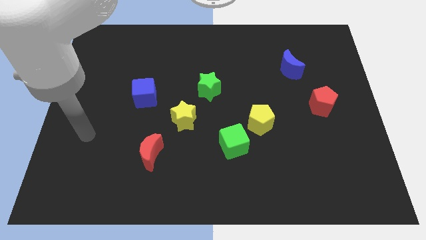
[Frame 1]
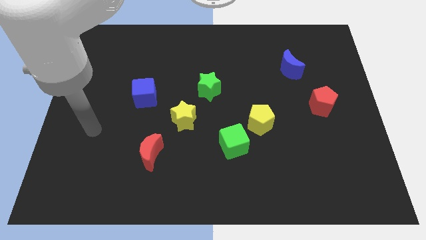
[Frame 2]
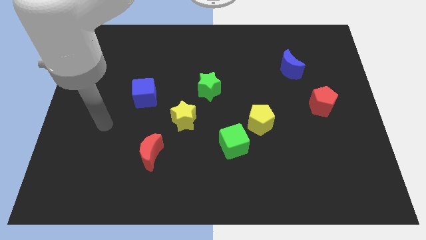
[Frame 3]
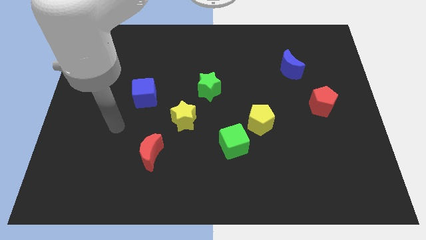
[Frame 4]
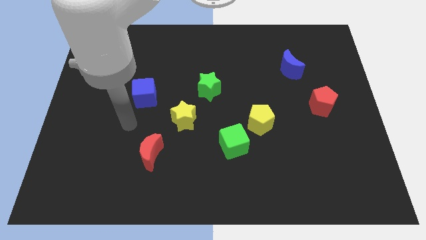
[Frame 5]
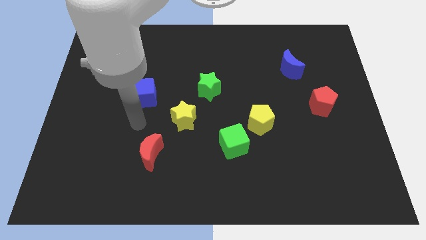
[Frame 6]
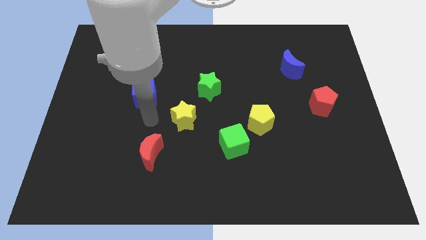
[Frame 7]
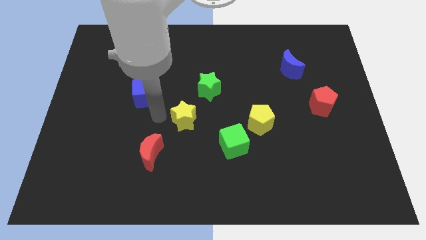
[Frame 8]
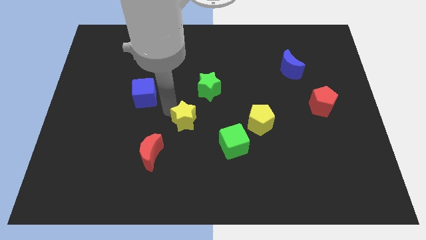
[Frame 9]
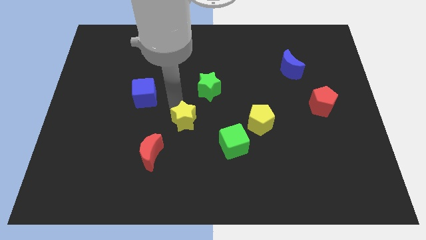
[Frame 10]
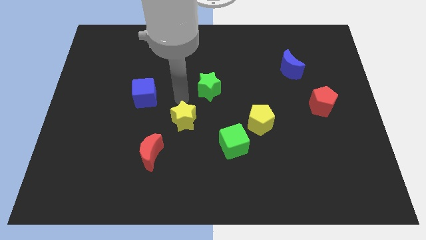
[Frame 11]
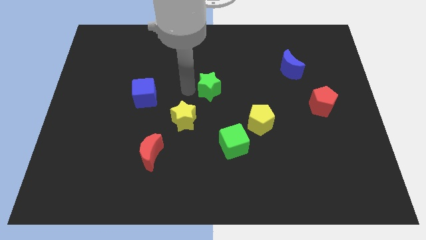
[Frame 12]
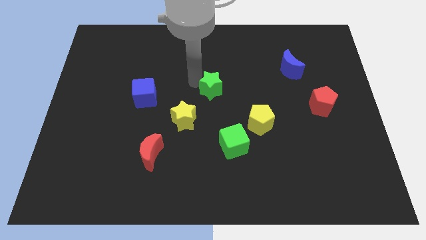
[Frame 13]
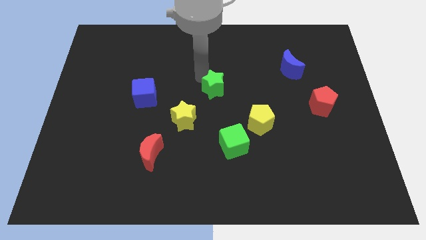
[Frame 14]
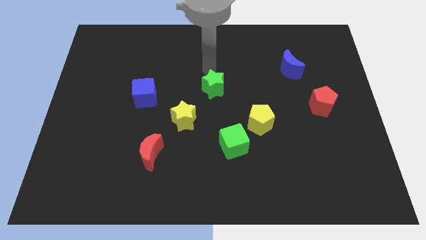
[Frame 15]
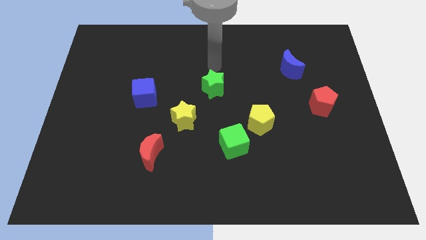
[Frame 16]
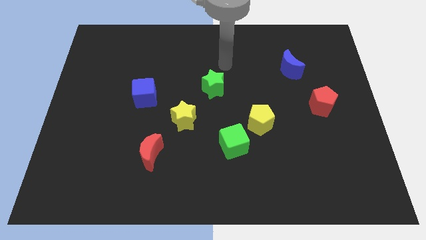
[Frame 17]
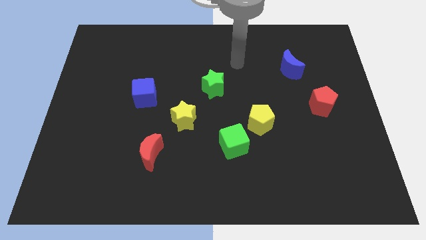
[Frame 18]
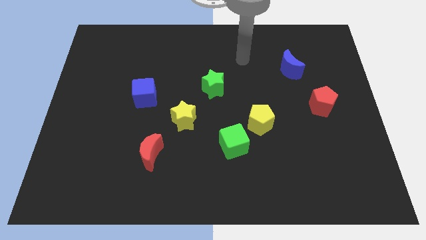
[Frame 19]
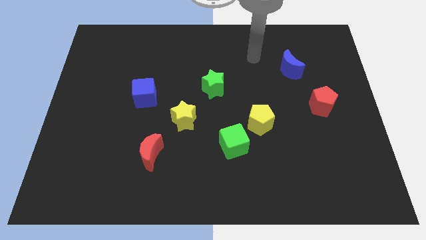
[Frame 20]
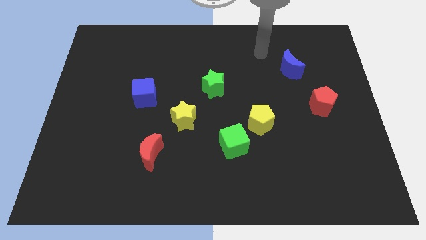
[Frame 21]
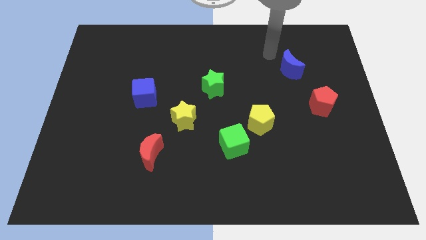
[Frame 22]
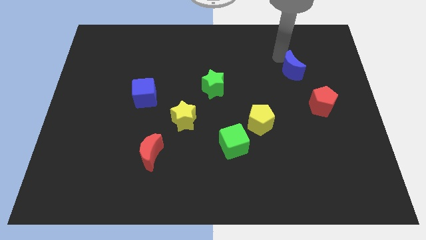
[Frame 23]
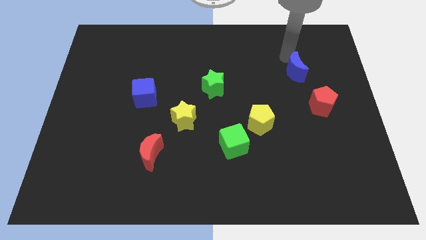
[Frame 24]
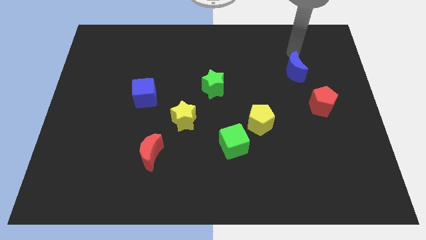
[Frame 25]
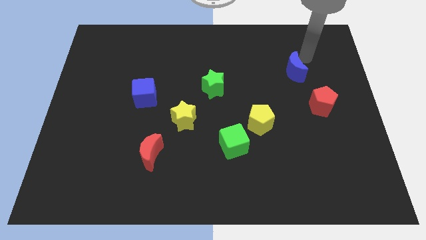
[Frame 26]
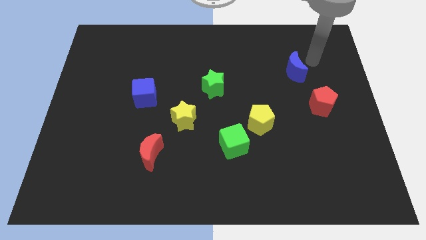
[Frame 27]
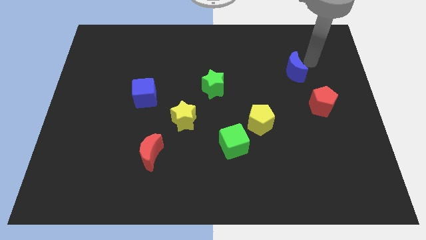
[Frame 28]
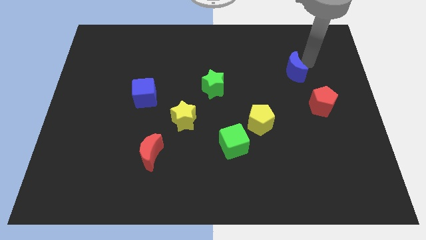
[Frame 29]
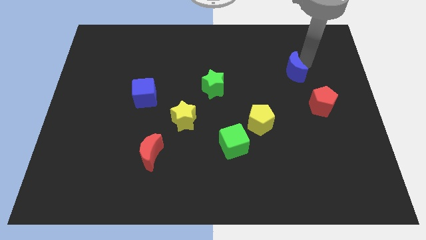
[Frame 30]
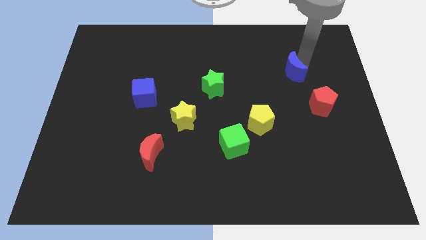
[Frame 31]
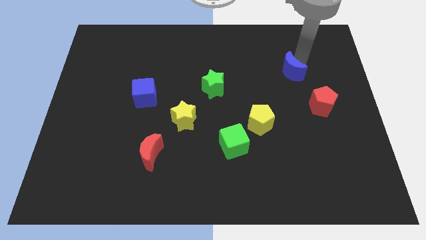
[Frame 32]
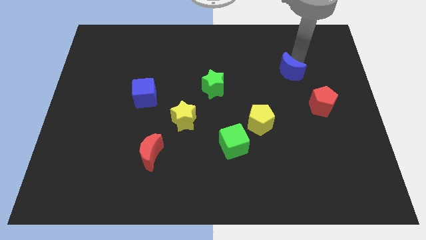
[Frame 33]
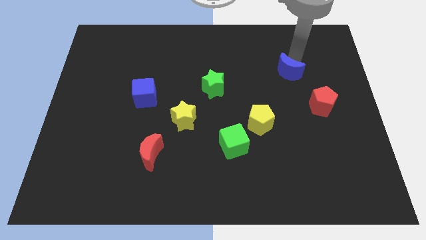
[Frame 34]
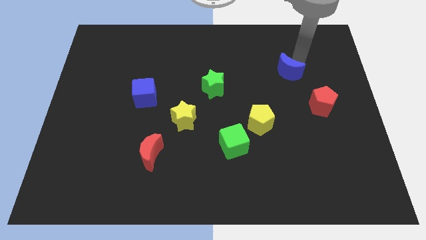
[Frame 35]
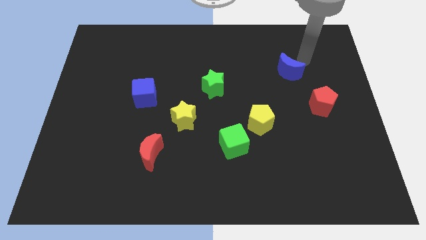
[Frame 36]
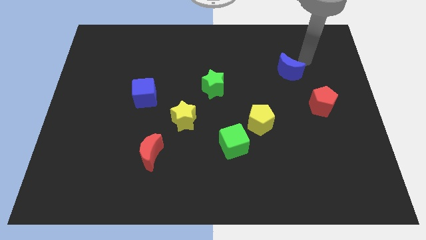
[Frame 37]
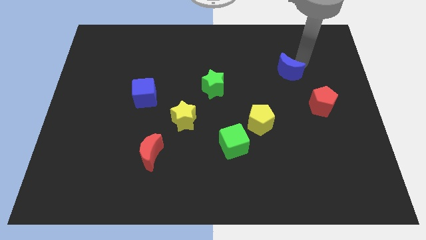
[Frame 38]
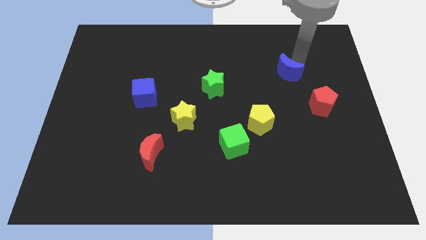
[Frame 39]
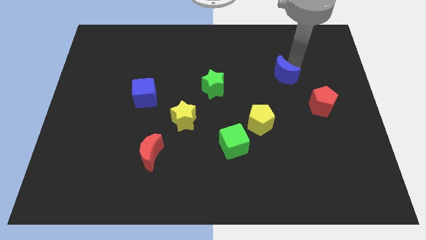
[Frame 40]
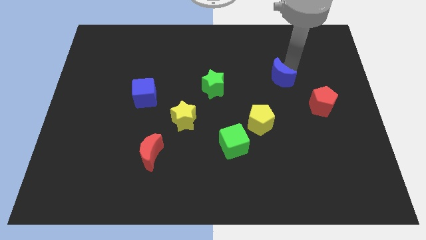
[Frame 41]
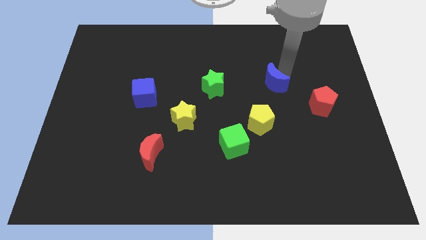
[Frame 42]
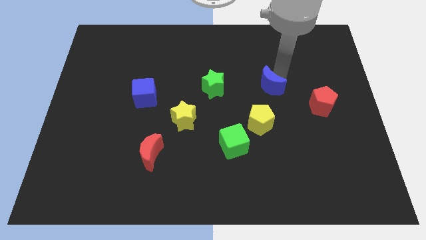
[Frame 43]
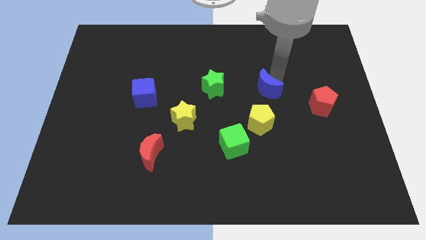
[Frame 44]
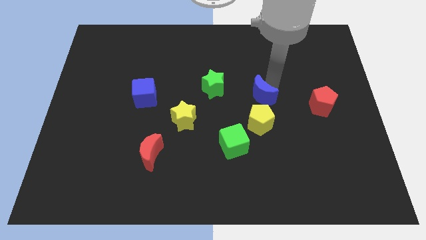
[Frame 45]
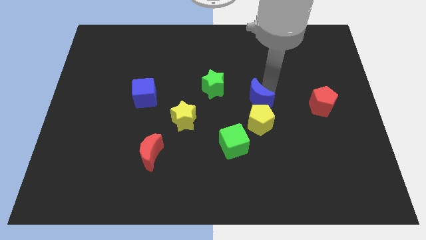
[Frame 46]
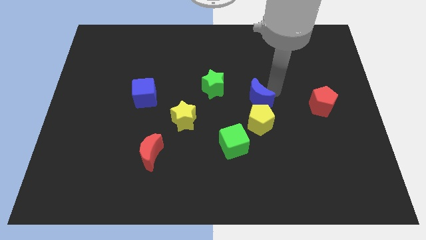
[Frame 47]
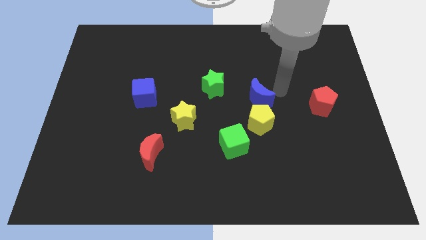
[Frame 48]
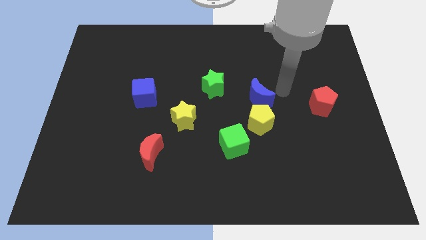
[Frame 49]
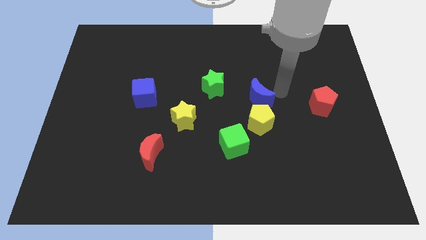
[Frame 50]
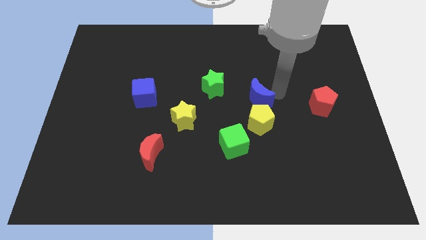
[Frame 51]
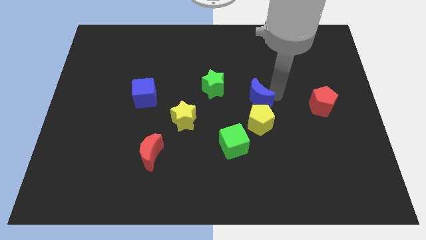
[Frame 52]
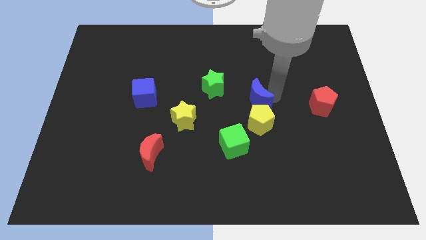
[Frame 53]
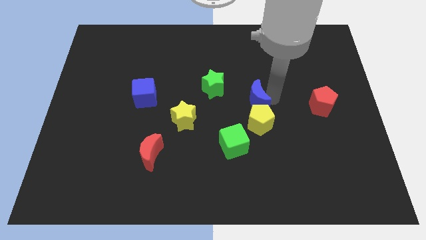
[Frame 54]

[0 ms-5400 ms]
slide the blue moon to the top left of the yellow pentagon

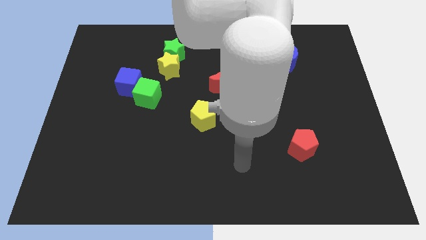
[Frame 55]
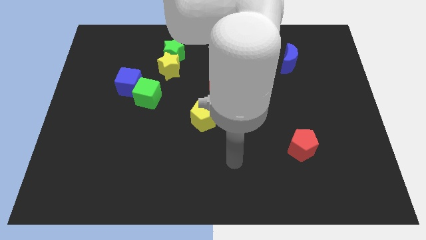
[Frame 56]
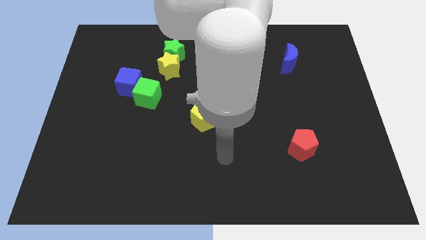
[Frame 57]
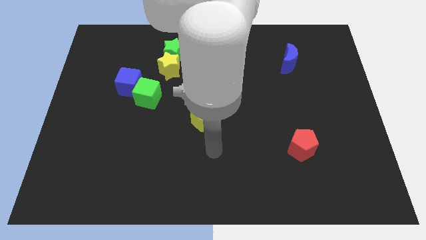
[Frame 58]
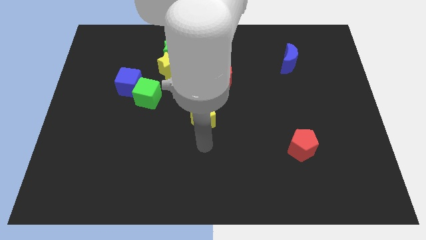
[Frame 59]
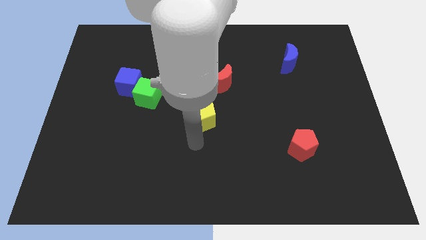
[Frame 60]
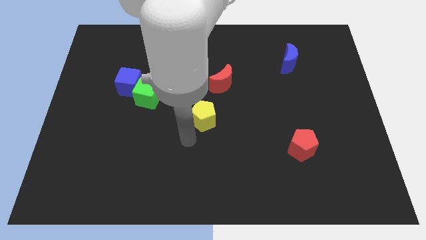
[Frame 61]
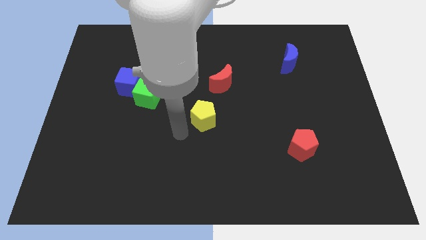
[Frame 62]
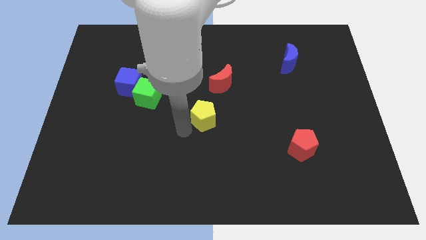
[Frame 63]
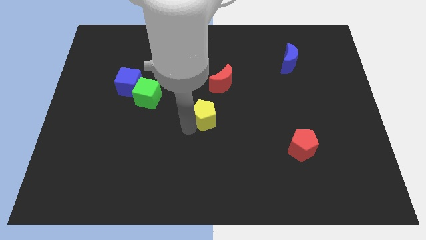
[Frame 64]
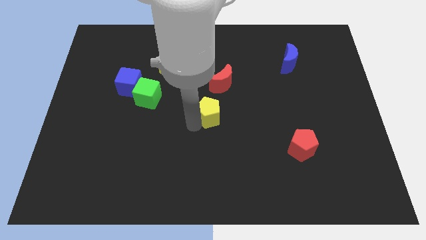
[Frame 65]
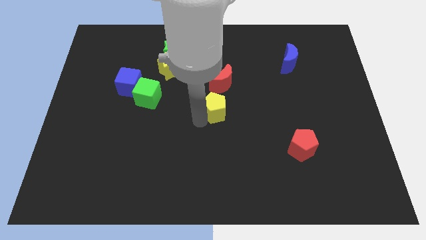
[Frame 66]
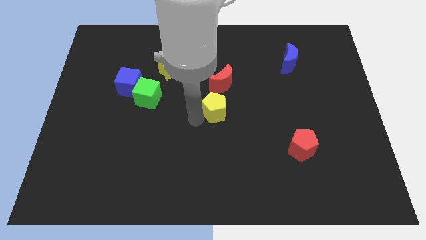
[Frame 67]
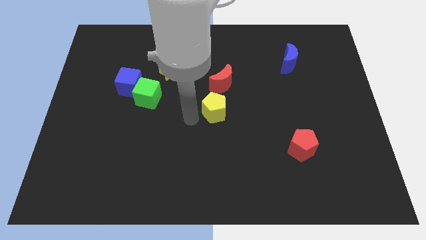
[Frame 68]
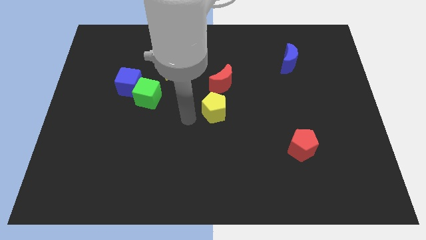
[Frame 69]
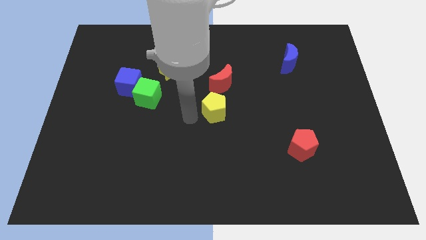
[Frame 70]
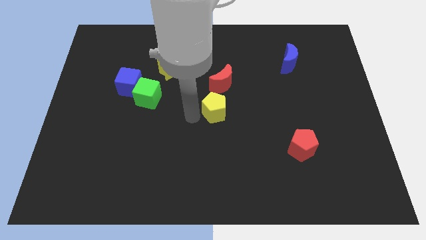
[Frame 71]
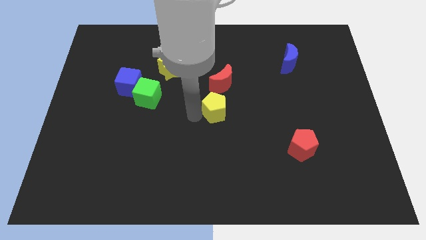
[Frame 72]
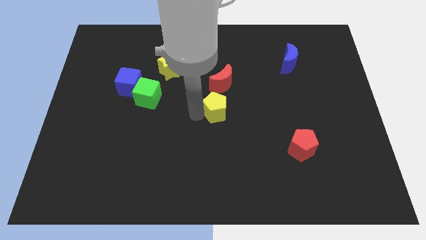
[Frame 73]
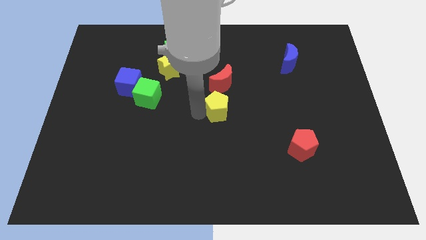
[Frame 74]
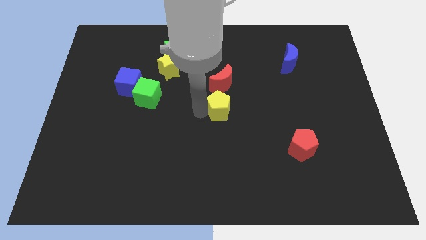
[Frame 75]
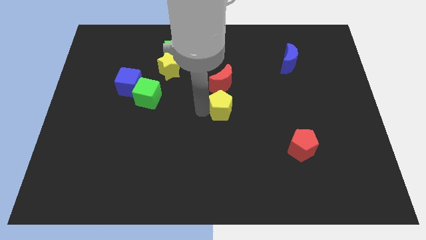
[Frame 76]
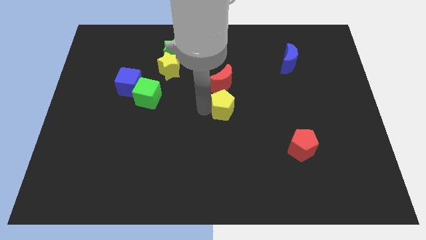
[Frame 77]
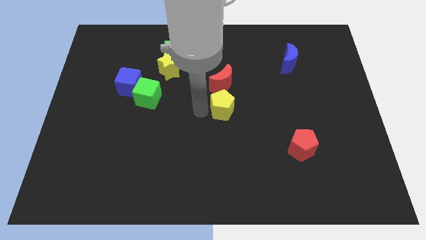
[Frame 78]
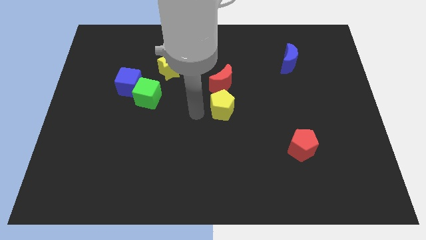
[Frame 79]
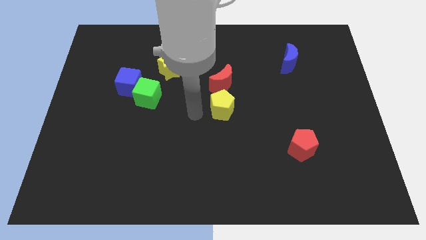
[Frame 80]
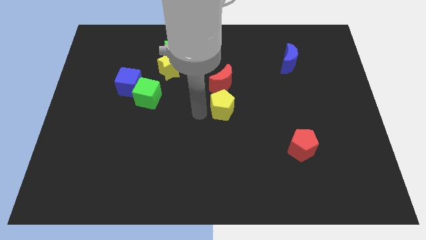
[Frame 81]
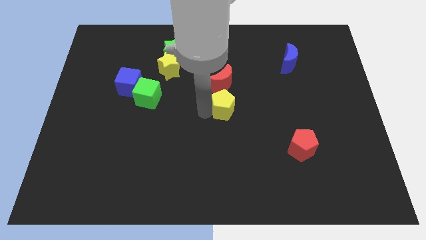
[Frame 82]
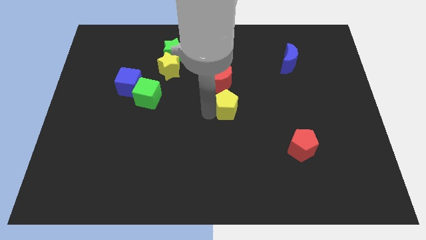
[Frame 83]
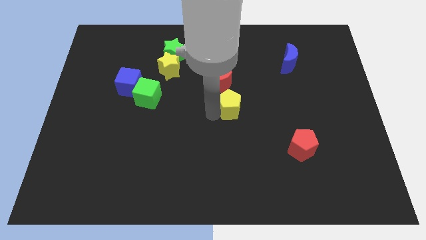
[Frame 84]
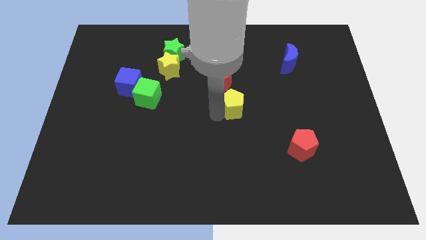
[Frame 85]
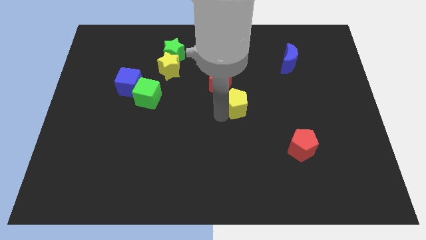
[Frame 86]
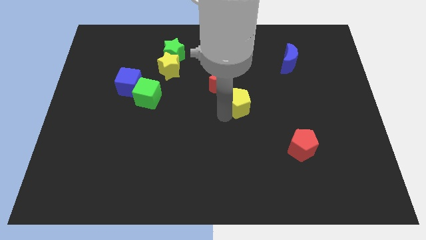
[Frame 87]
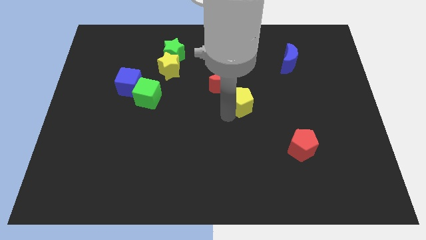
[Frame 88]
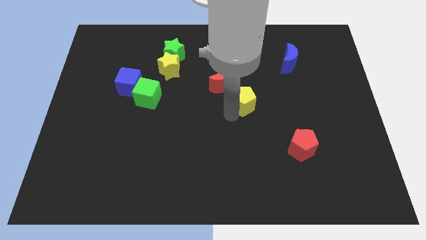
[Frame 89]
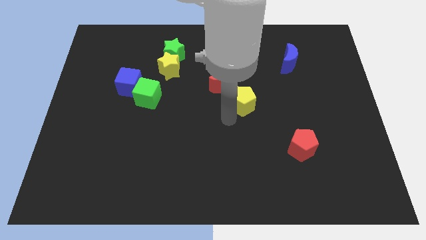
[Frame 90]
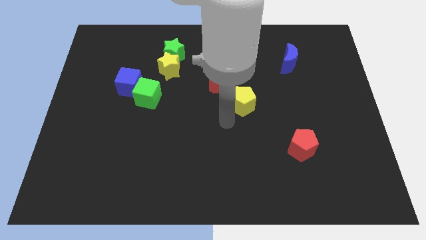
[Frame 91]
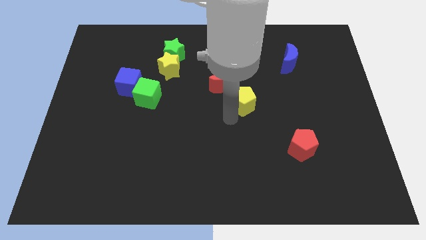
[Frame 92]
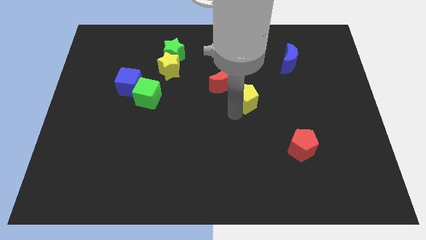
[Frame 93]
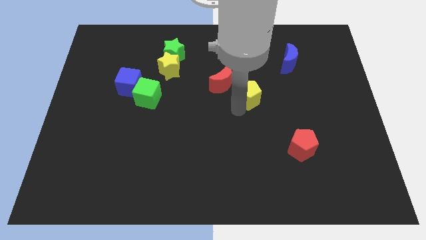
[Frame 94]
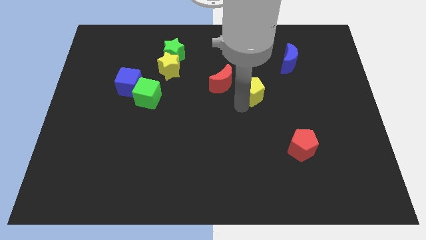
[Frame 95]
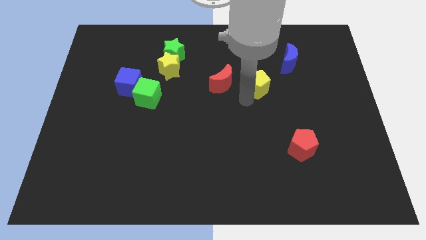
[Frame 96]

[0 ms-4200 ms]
put the yellow pentagon to the bottom left side of the blue moon
